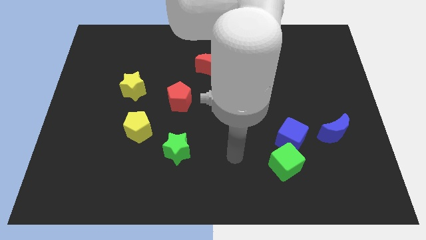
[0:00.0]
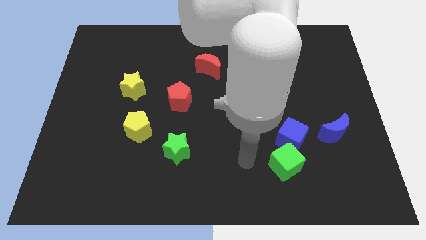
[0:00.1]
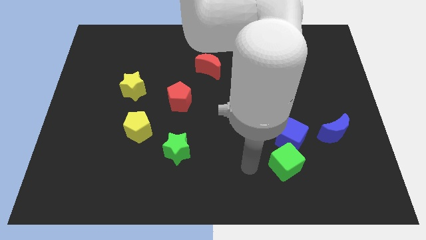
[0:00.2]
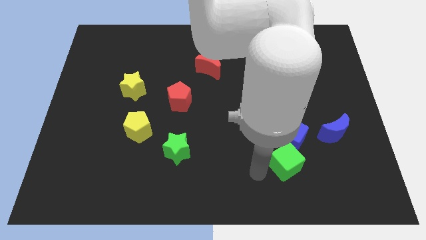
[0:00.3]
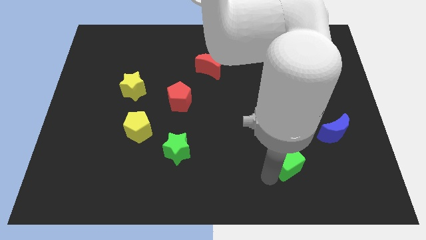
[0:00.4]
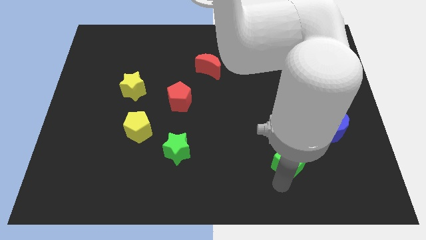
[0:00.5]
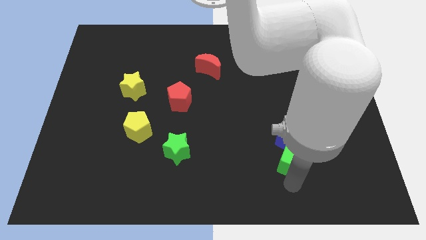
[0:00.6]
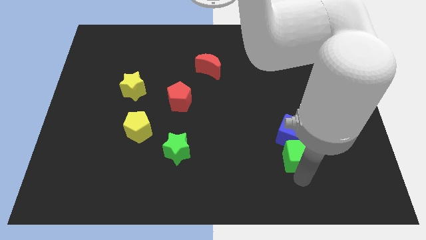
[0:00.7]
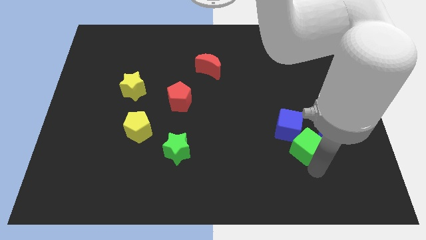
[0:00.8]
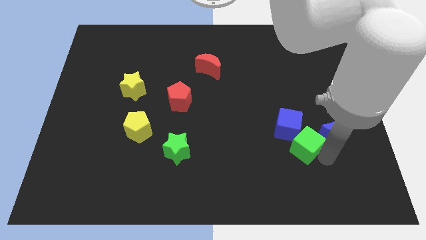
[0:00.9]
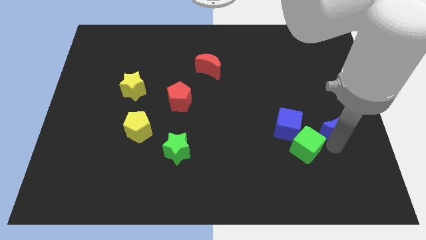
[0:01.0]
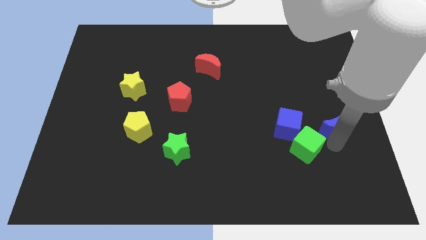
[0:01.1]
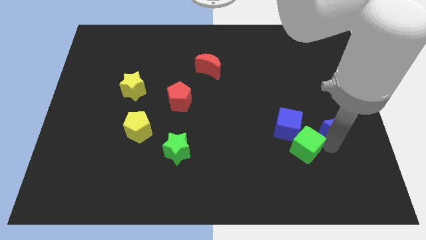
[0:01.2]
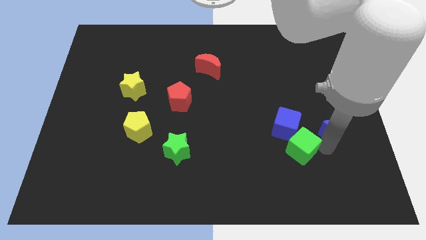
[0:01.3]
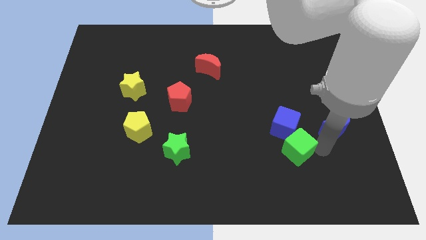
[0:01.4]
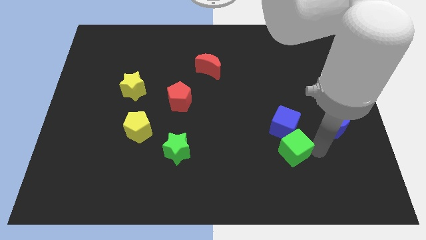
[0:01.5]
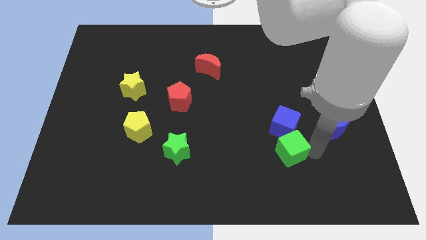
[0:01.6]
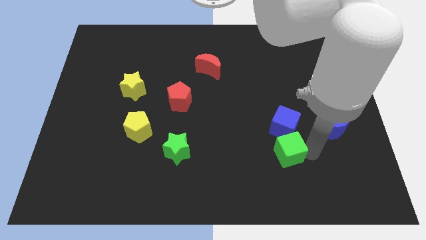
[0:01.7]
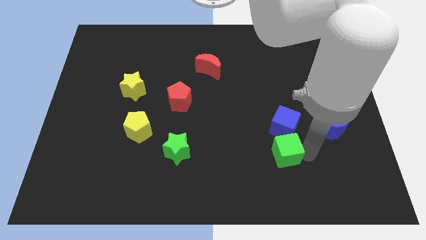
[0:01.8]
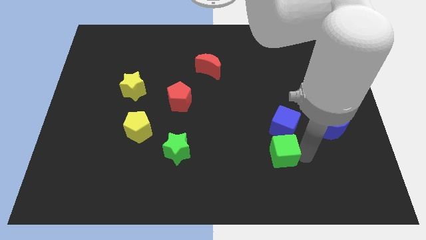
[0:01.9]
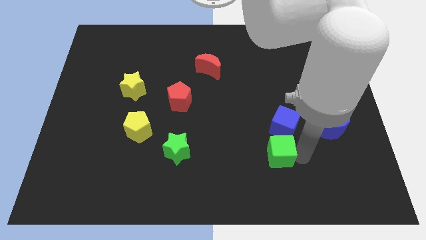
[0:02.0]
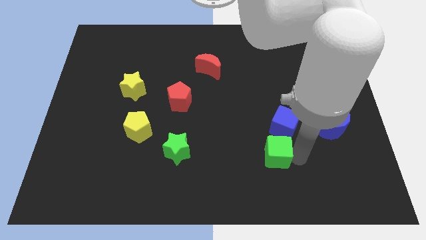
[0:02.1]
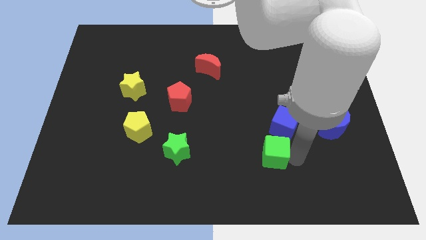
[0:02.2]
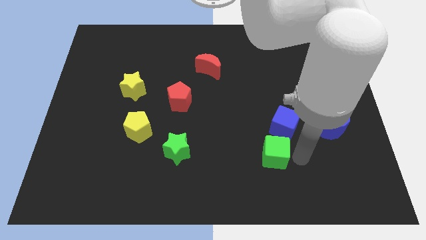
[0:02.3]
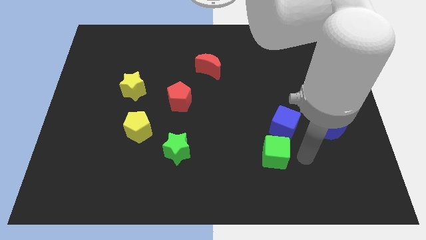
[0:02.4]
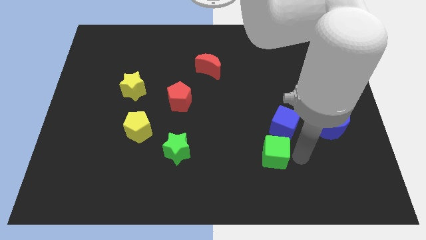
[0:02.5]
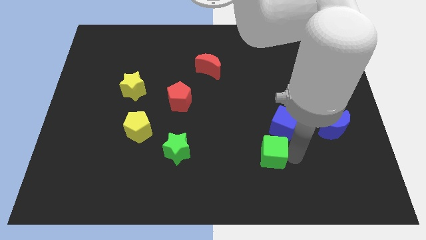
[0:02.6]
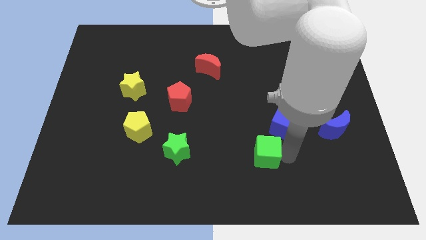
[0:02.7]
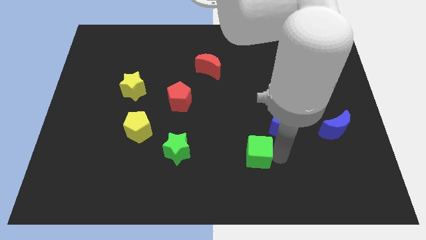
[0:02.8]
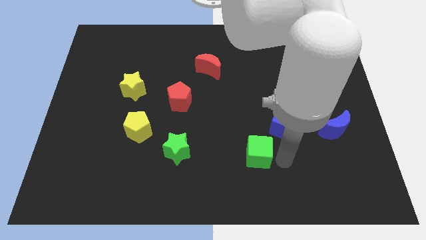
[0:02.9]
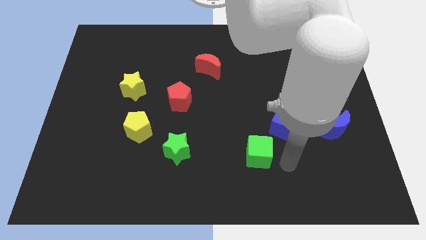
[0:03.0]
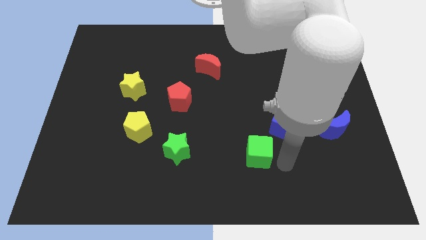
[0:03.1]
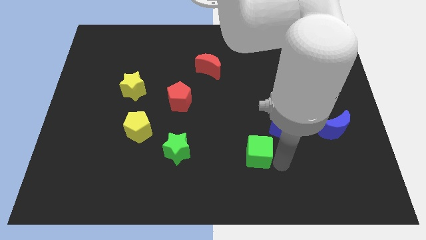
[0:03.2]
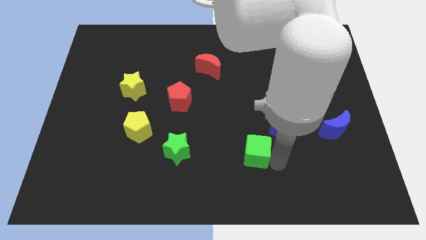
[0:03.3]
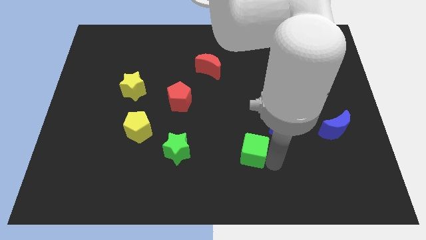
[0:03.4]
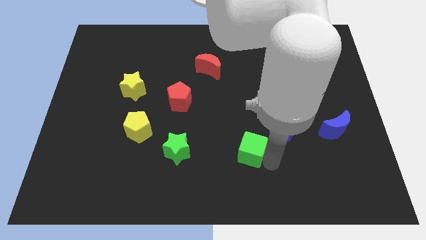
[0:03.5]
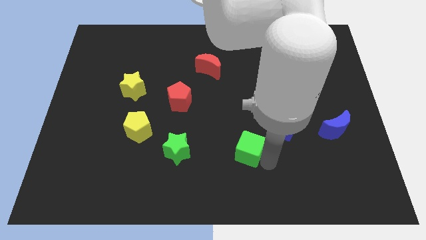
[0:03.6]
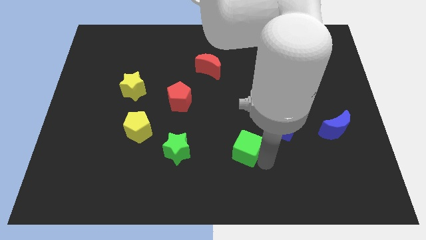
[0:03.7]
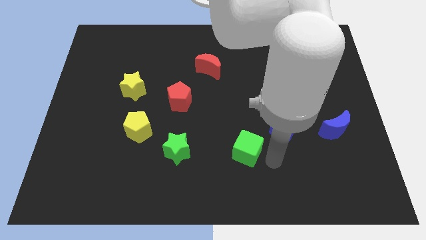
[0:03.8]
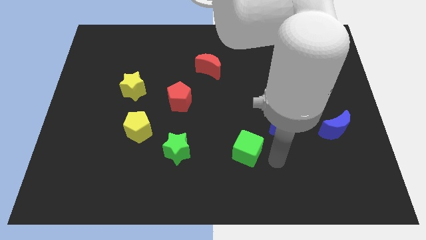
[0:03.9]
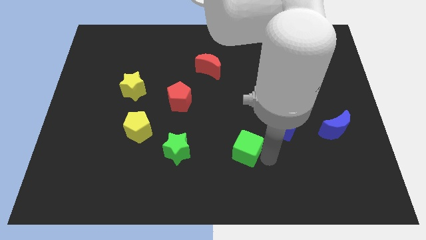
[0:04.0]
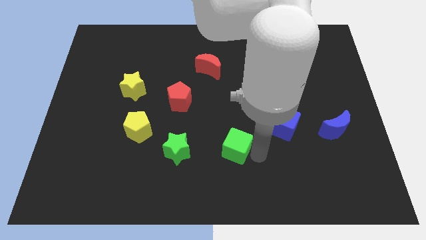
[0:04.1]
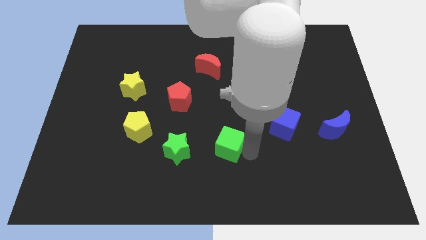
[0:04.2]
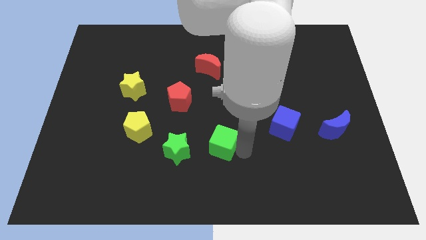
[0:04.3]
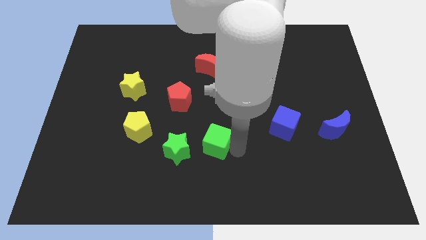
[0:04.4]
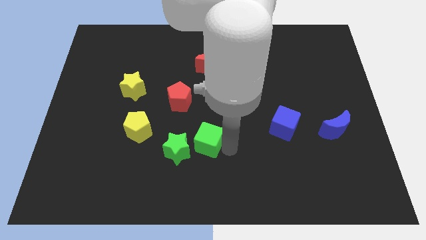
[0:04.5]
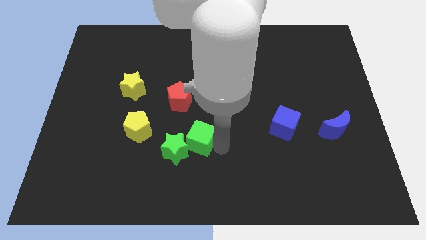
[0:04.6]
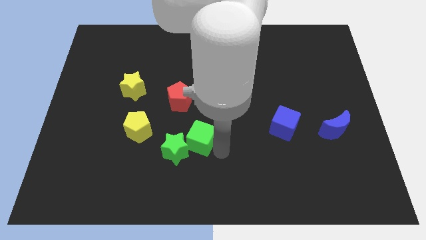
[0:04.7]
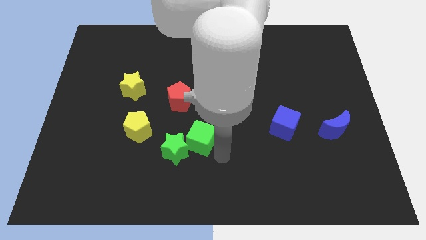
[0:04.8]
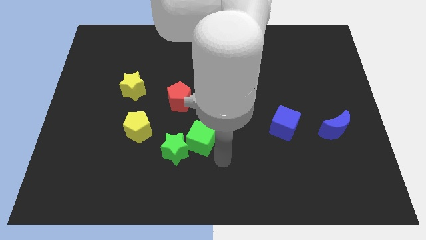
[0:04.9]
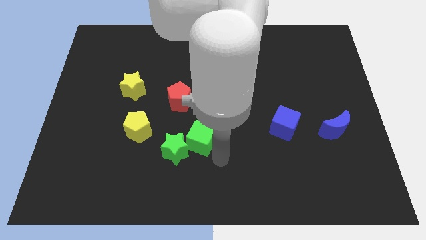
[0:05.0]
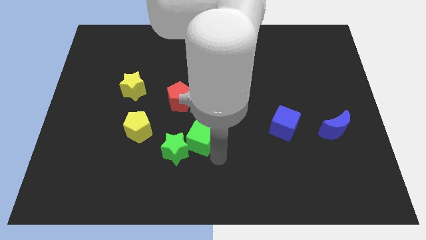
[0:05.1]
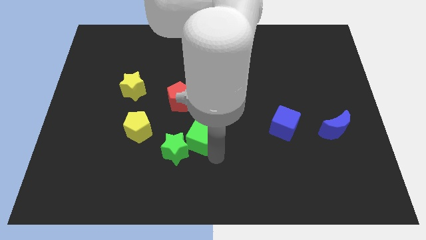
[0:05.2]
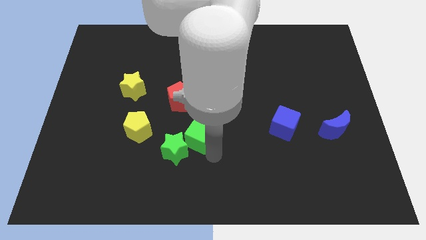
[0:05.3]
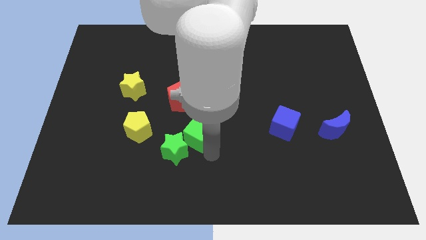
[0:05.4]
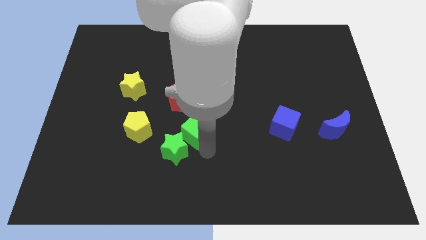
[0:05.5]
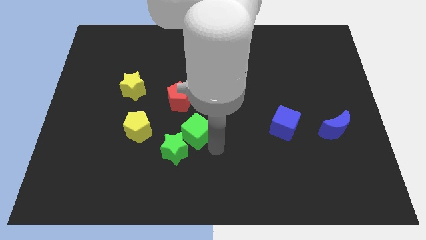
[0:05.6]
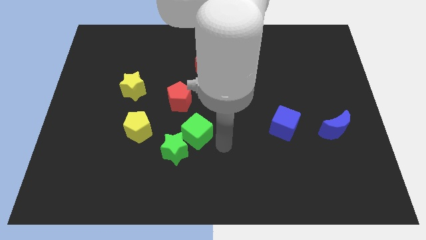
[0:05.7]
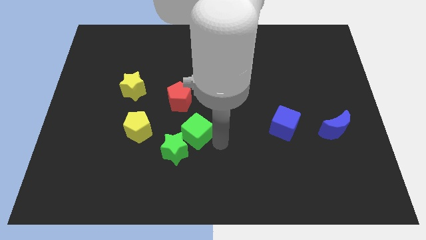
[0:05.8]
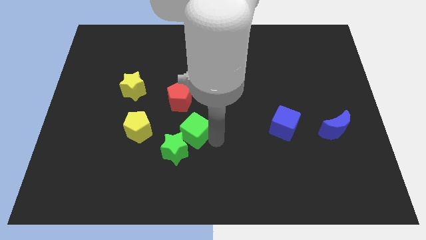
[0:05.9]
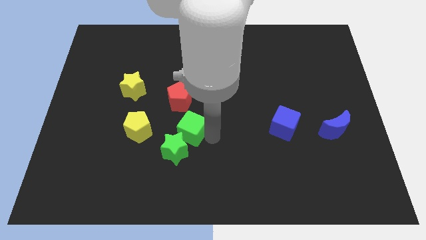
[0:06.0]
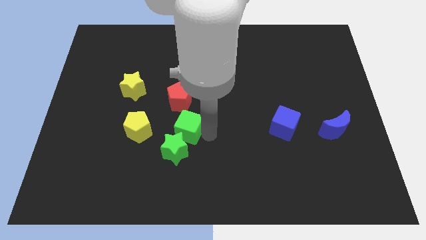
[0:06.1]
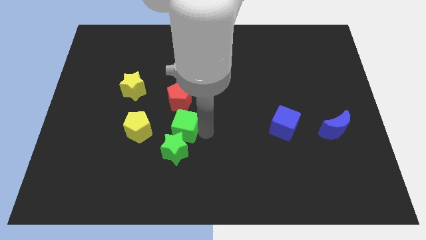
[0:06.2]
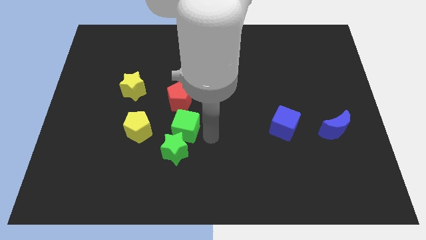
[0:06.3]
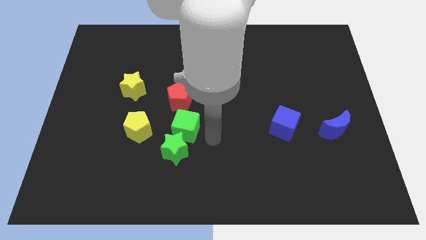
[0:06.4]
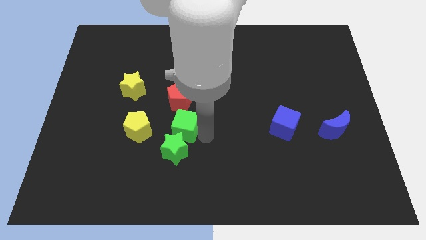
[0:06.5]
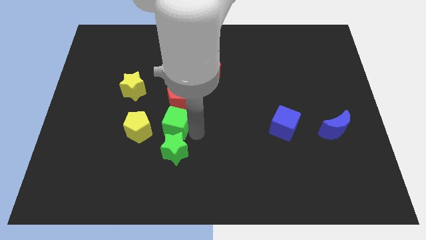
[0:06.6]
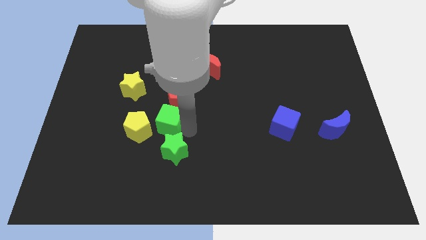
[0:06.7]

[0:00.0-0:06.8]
slide the green cube to the bottom left side of the red pentagon
